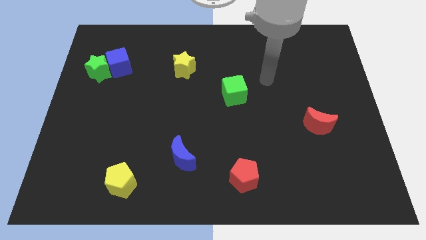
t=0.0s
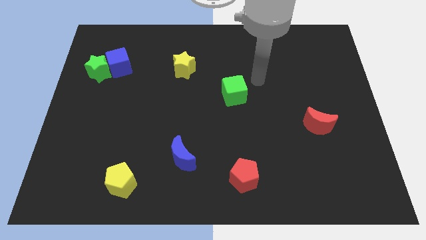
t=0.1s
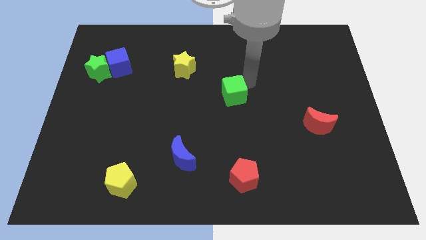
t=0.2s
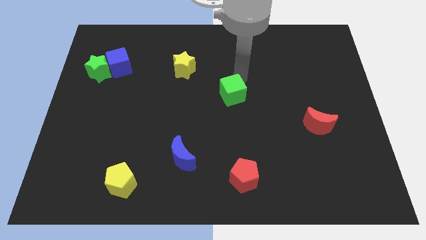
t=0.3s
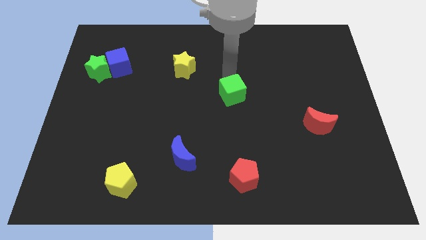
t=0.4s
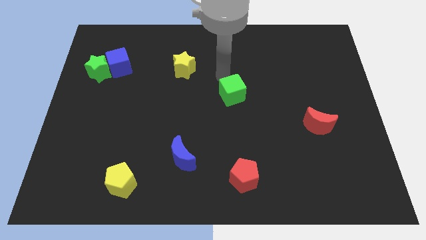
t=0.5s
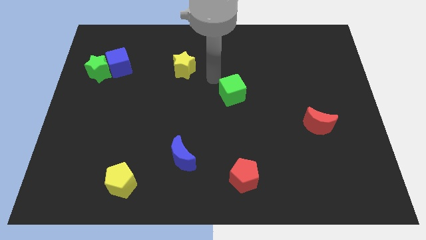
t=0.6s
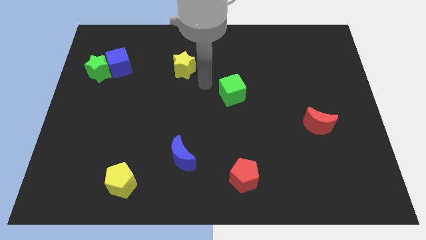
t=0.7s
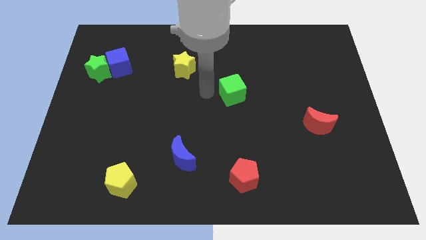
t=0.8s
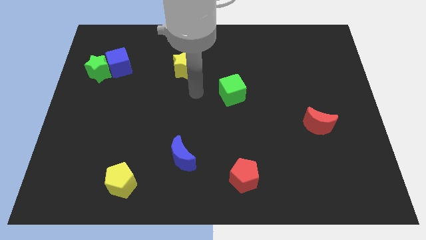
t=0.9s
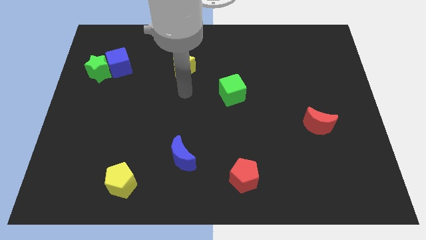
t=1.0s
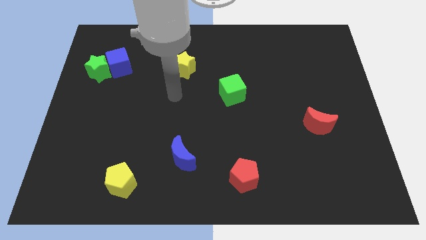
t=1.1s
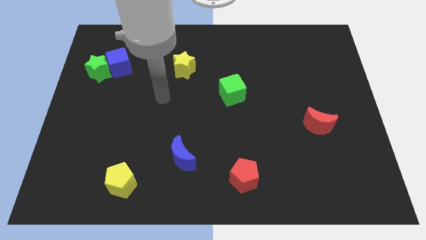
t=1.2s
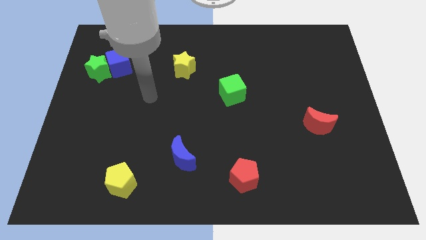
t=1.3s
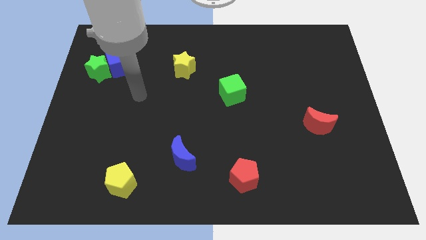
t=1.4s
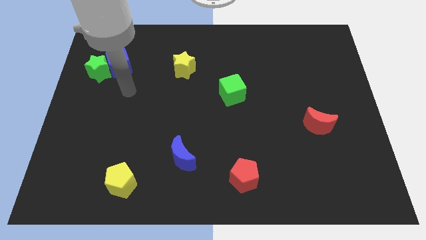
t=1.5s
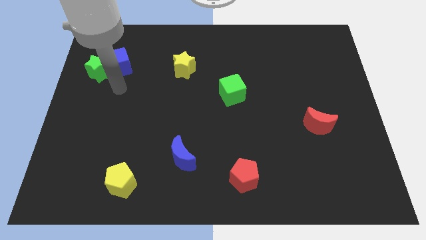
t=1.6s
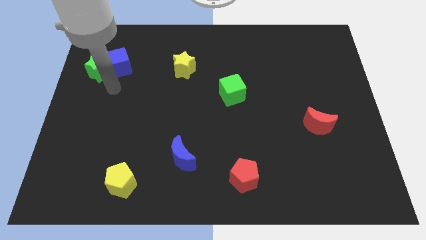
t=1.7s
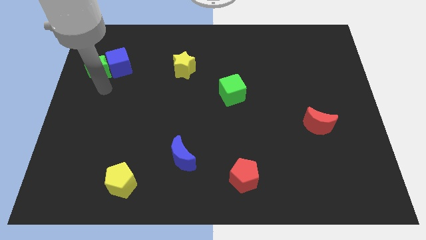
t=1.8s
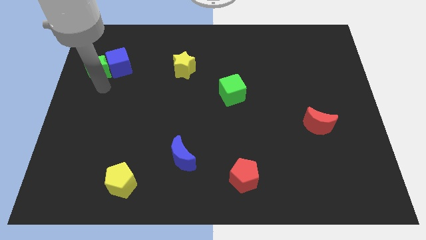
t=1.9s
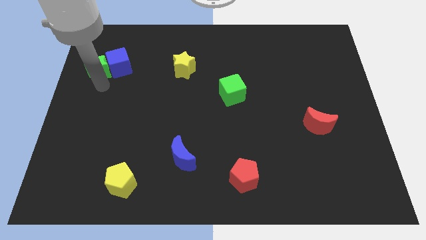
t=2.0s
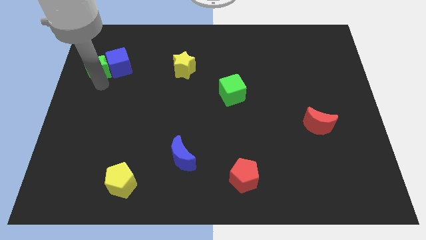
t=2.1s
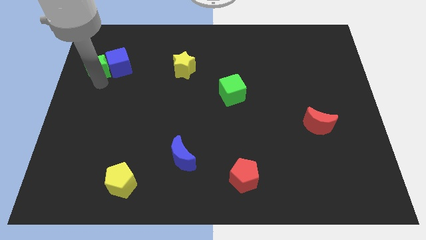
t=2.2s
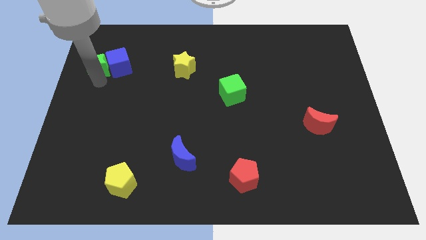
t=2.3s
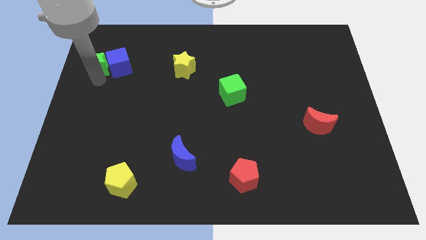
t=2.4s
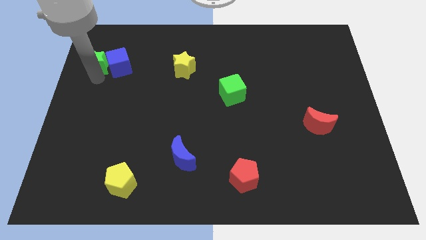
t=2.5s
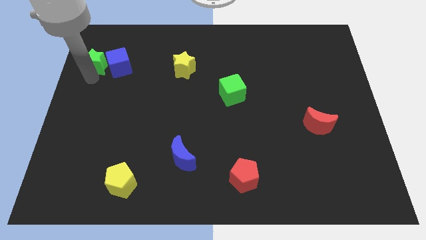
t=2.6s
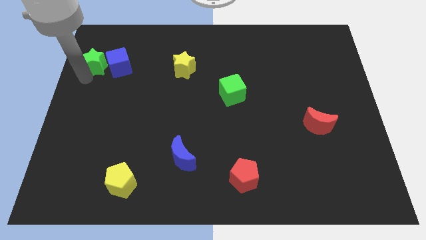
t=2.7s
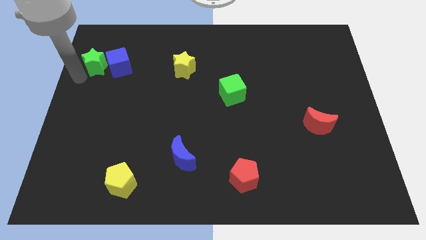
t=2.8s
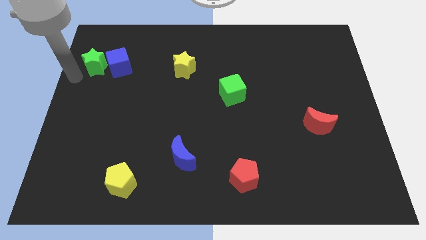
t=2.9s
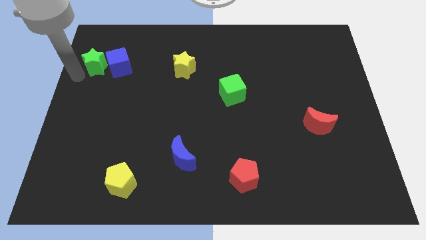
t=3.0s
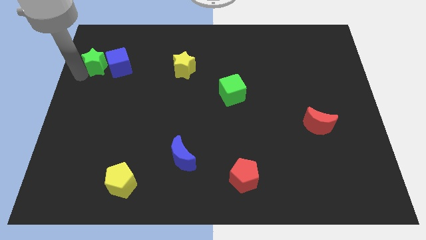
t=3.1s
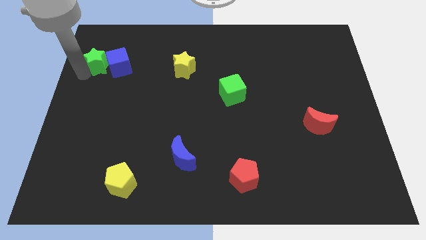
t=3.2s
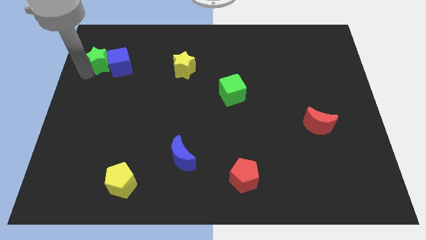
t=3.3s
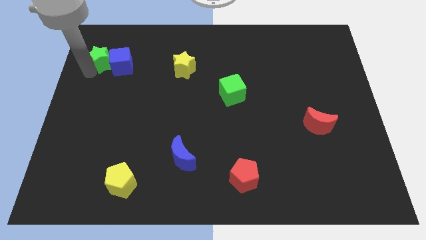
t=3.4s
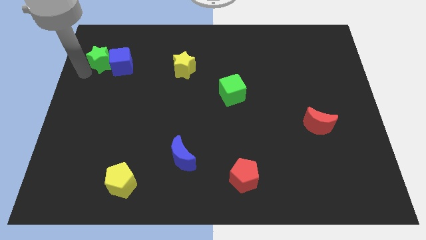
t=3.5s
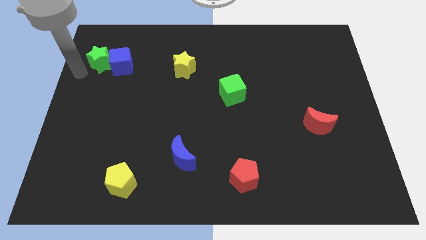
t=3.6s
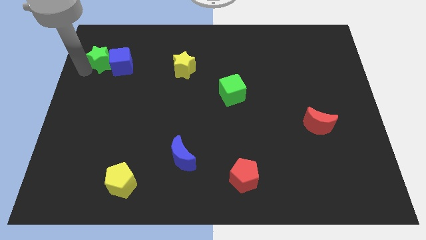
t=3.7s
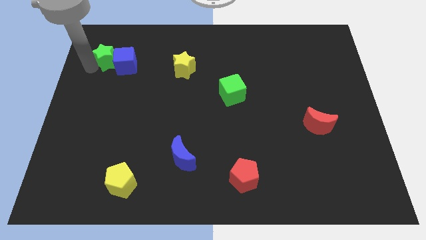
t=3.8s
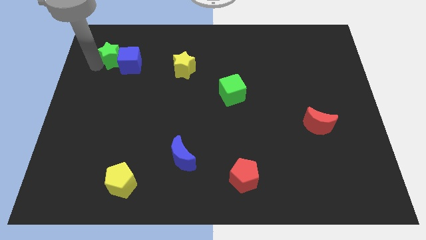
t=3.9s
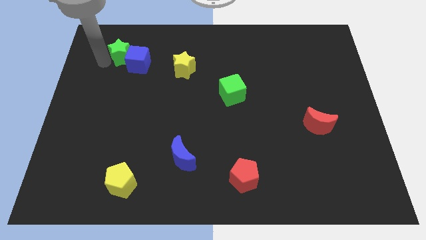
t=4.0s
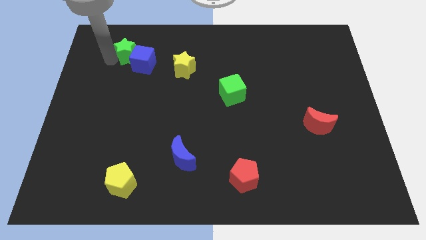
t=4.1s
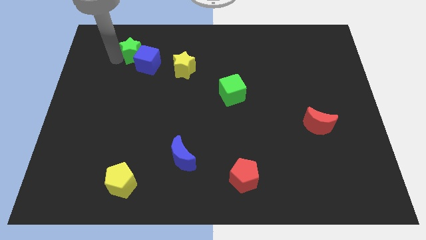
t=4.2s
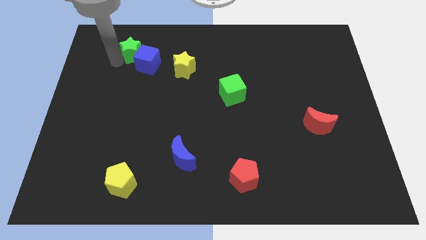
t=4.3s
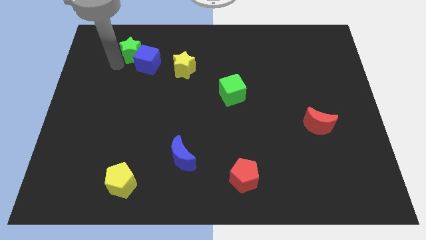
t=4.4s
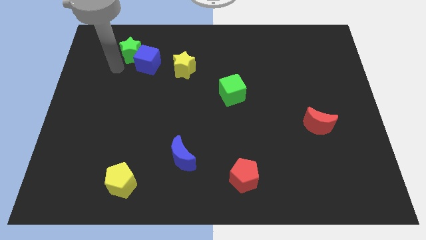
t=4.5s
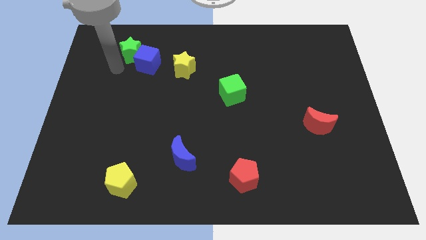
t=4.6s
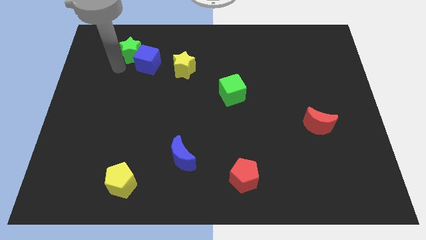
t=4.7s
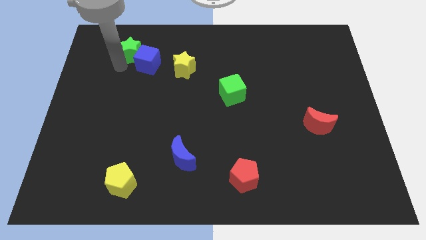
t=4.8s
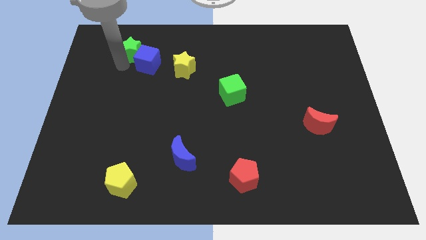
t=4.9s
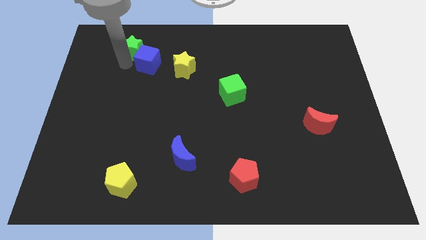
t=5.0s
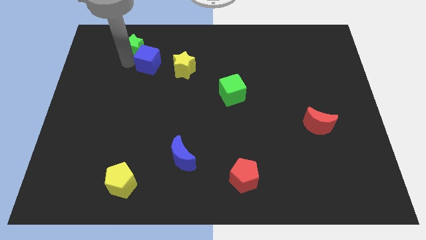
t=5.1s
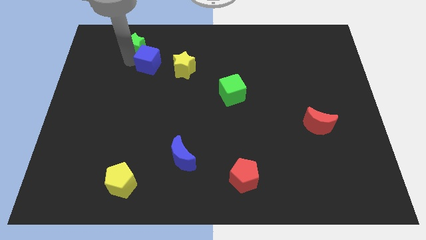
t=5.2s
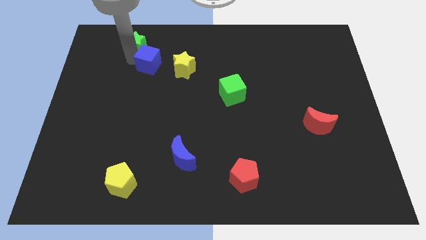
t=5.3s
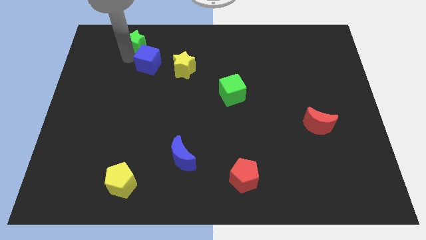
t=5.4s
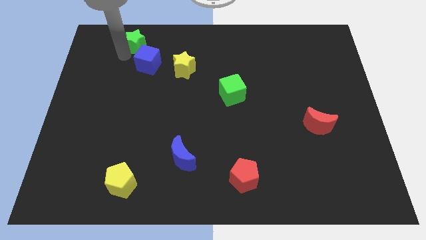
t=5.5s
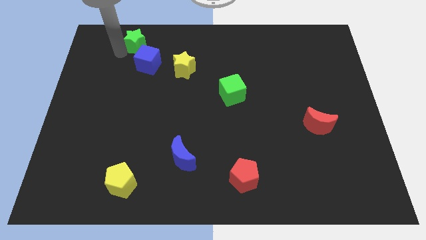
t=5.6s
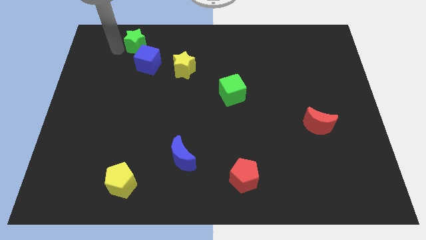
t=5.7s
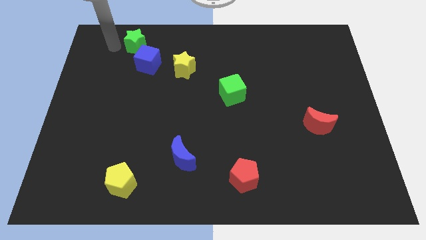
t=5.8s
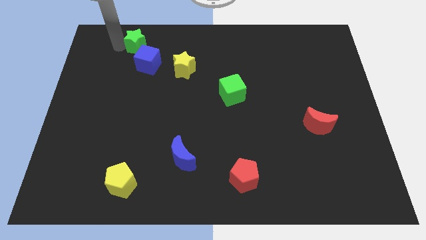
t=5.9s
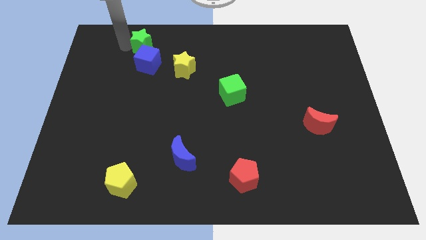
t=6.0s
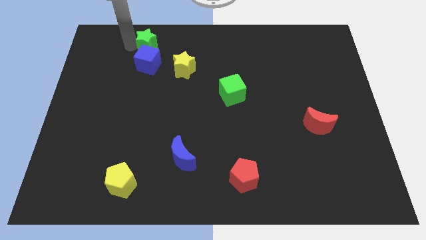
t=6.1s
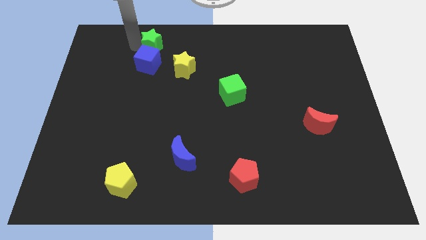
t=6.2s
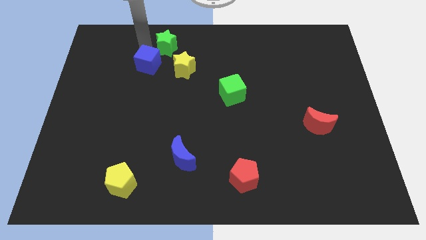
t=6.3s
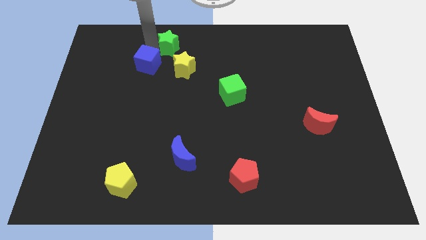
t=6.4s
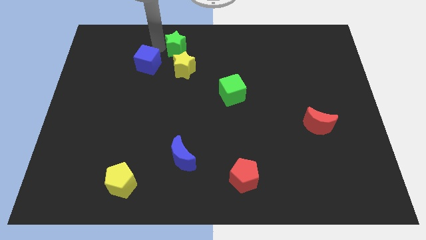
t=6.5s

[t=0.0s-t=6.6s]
move the green star to the towards your base
